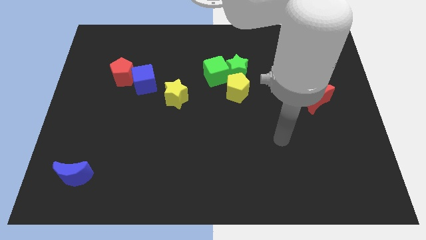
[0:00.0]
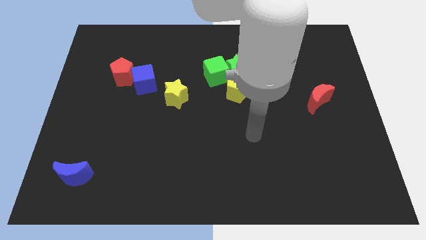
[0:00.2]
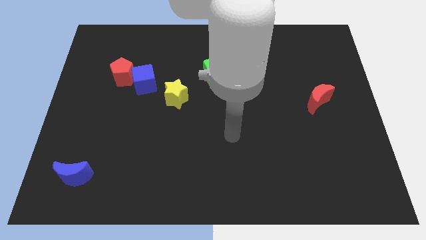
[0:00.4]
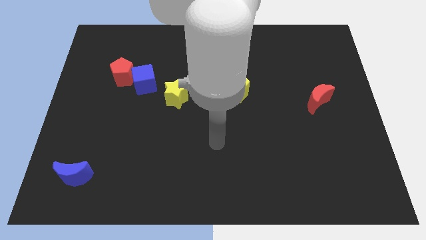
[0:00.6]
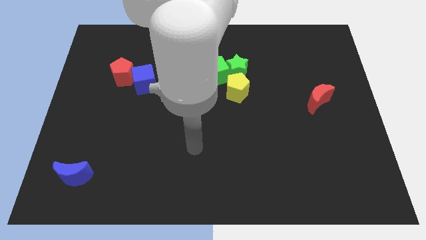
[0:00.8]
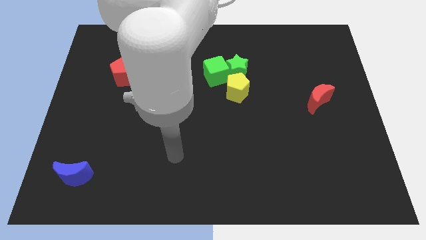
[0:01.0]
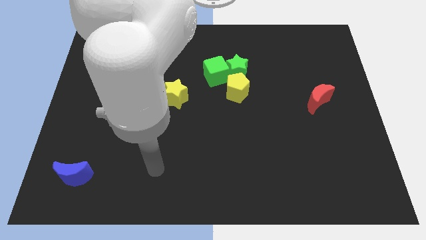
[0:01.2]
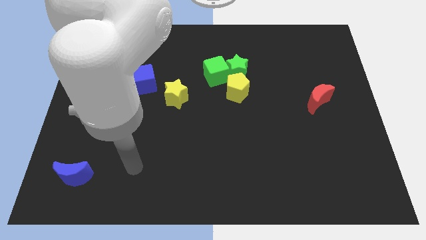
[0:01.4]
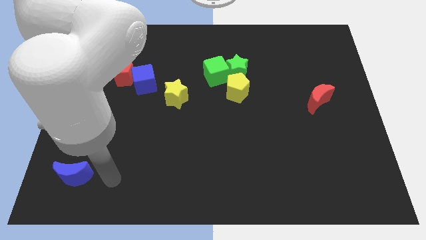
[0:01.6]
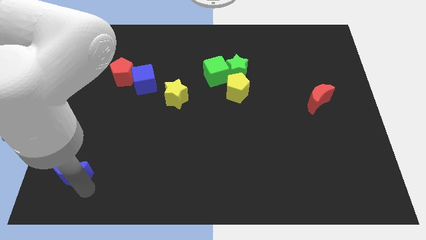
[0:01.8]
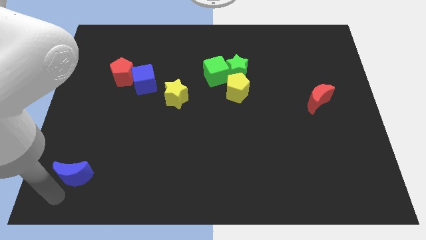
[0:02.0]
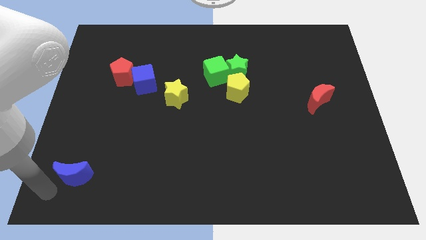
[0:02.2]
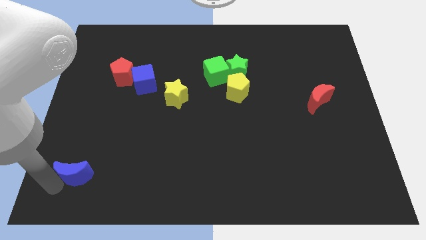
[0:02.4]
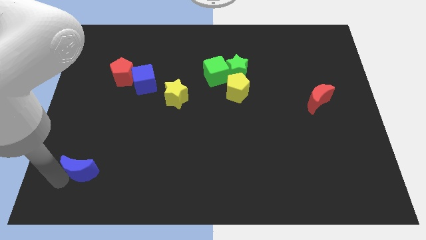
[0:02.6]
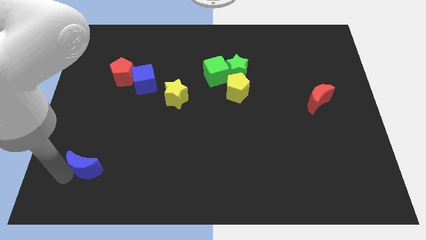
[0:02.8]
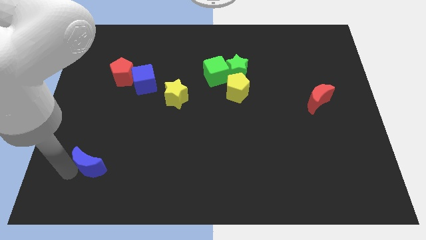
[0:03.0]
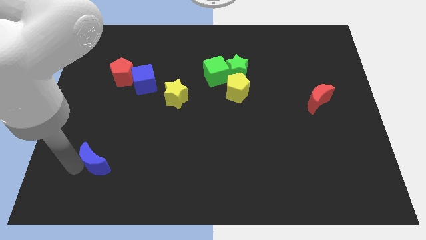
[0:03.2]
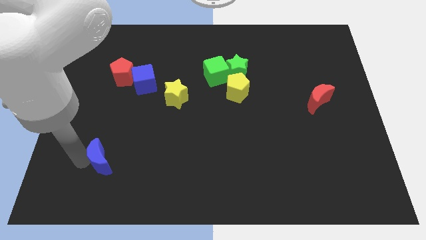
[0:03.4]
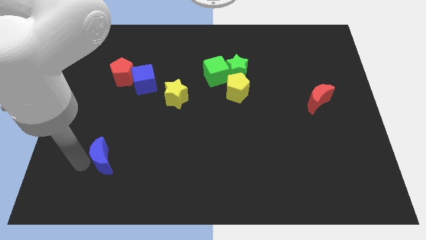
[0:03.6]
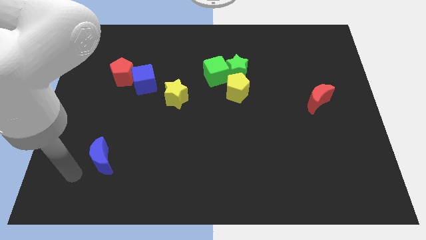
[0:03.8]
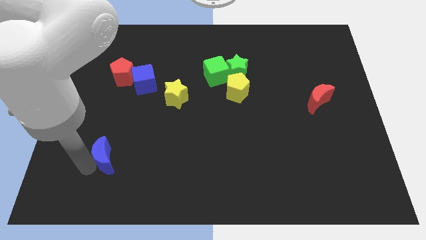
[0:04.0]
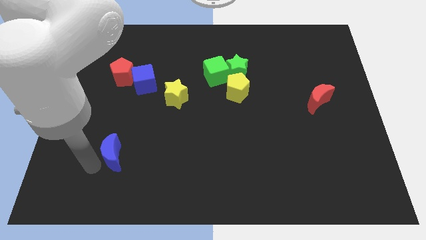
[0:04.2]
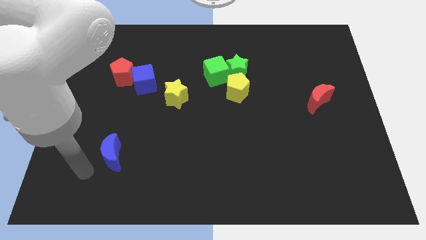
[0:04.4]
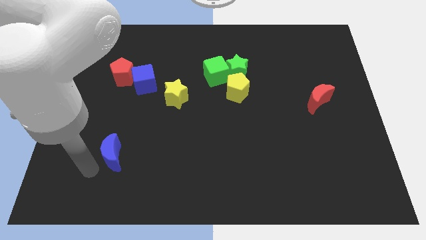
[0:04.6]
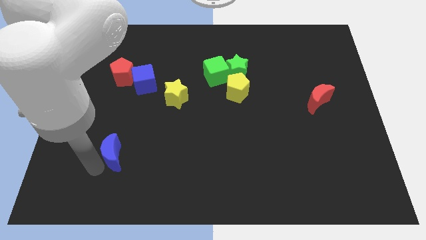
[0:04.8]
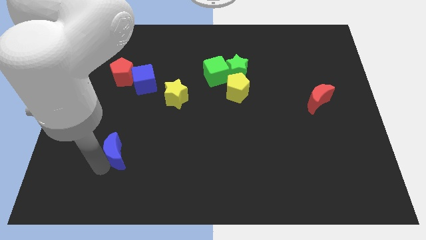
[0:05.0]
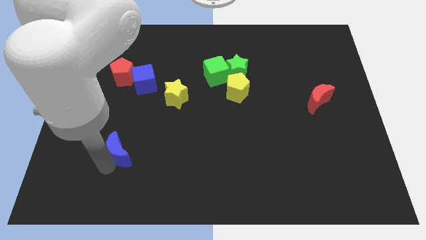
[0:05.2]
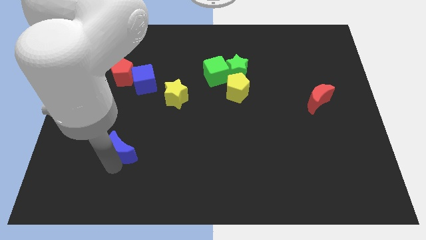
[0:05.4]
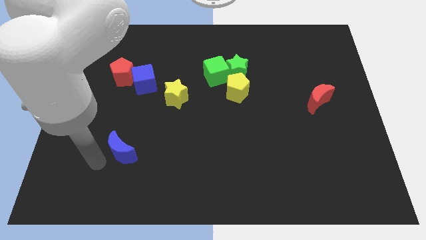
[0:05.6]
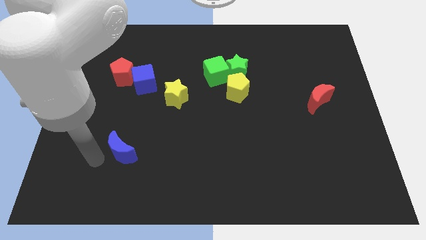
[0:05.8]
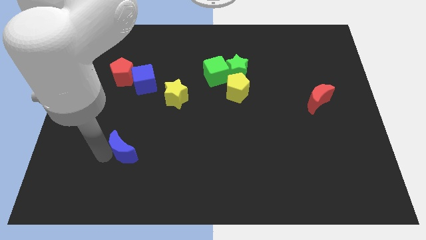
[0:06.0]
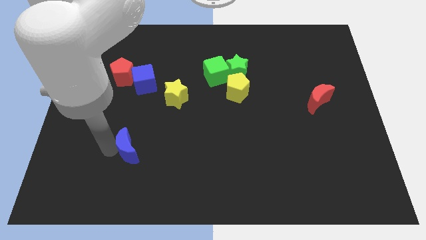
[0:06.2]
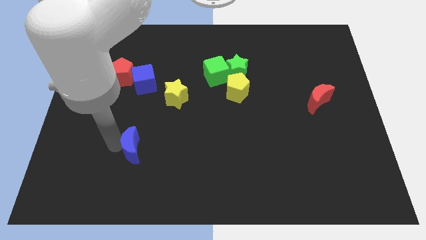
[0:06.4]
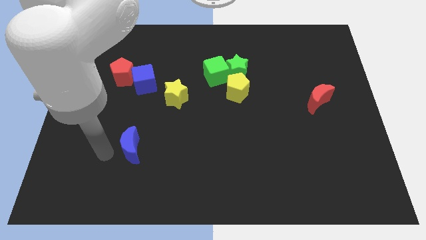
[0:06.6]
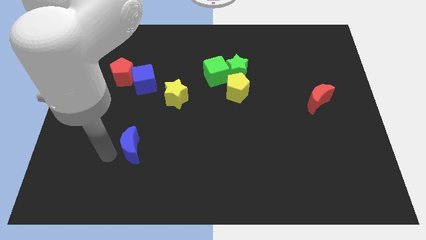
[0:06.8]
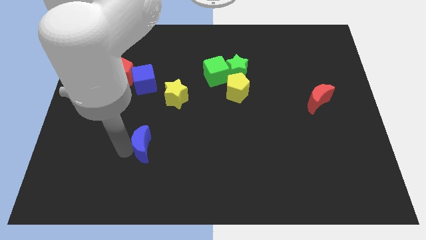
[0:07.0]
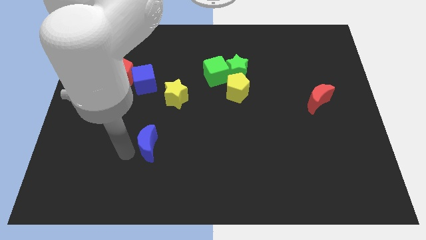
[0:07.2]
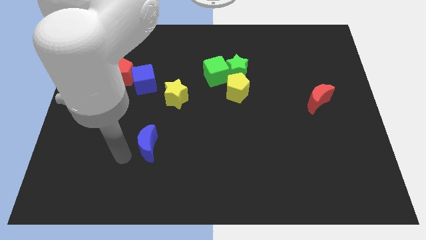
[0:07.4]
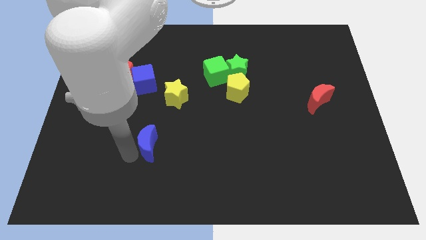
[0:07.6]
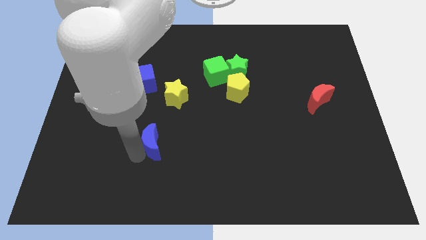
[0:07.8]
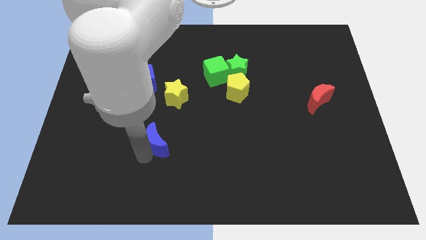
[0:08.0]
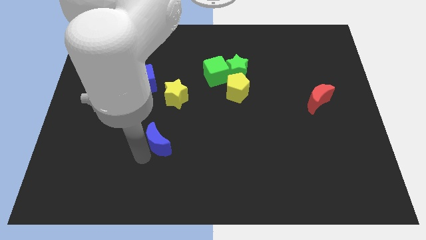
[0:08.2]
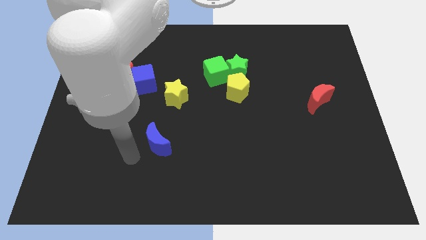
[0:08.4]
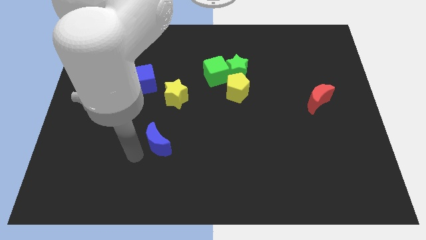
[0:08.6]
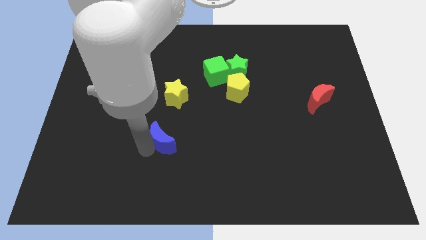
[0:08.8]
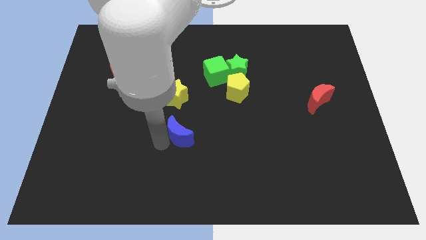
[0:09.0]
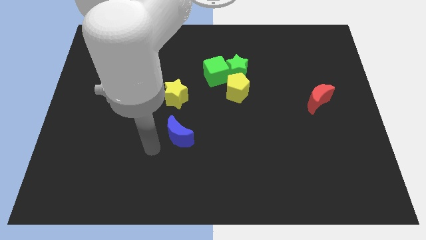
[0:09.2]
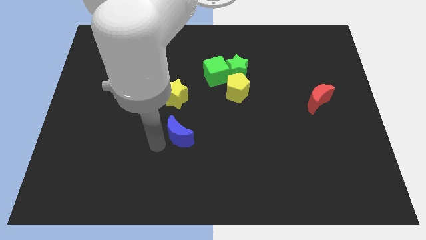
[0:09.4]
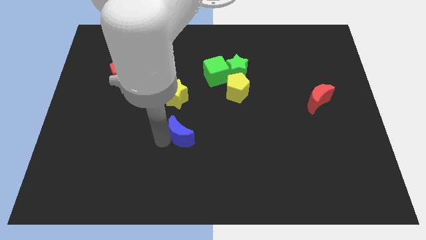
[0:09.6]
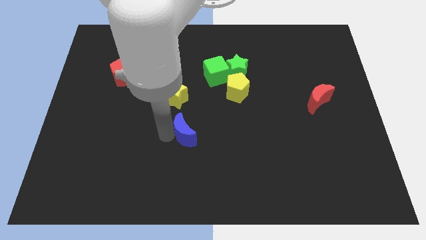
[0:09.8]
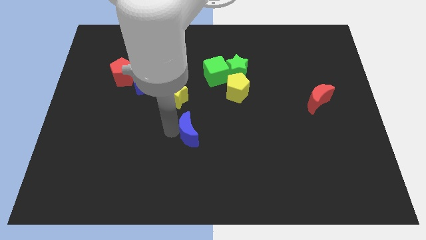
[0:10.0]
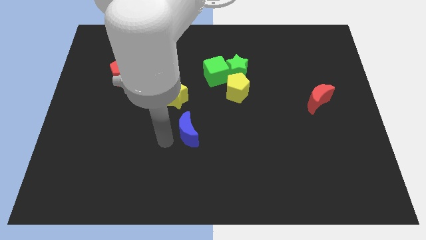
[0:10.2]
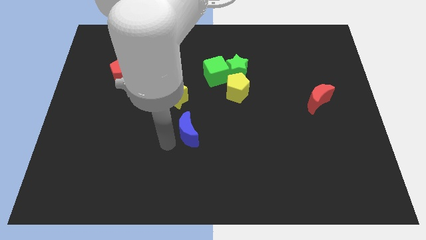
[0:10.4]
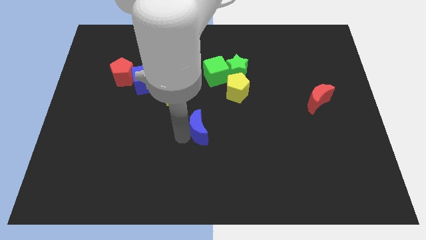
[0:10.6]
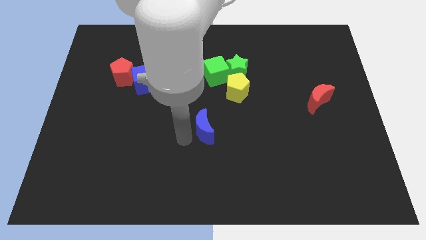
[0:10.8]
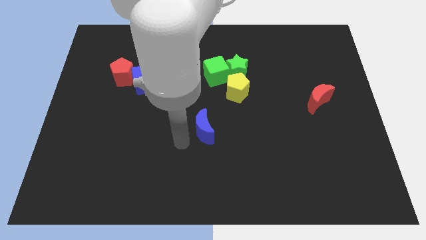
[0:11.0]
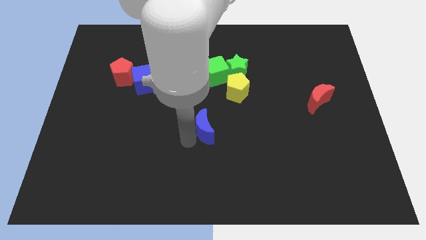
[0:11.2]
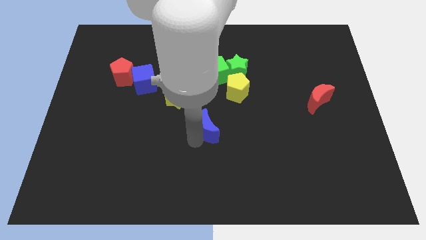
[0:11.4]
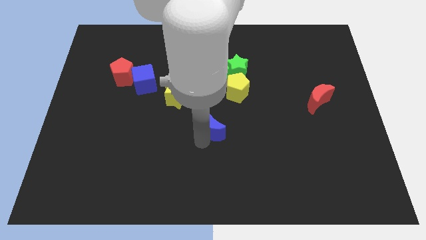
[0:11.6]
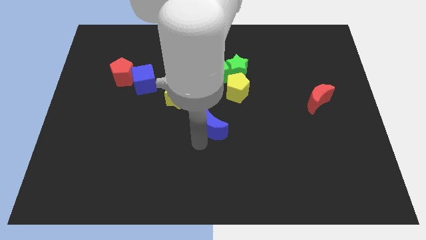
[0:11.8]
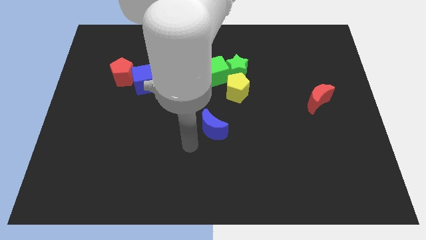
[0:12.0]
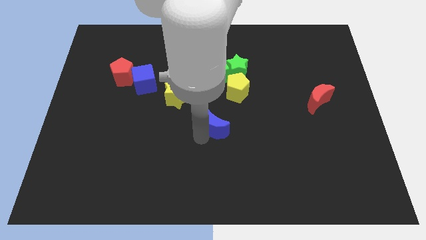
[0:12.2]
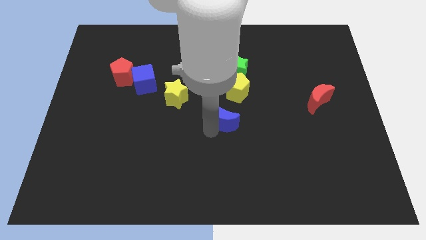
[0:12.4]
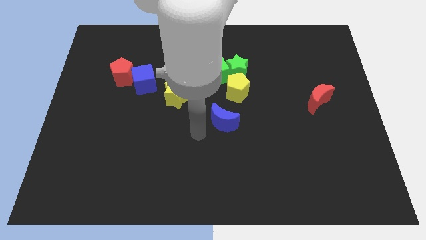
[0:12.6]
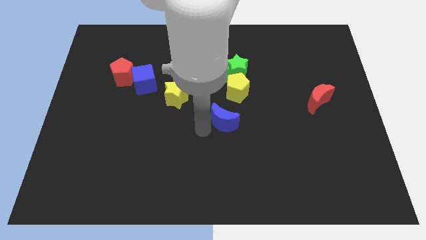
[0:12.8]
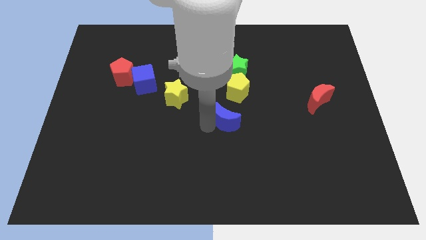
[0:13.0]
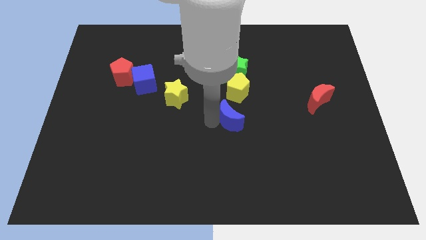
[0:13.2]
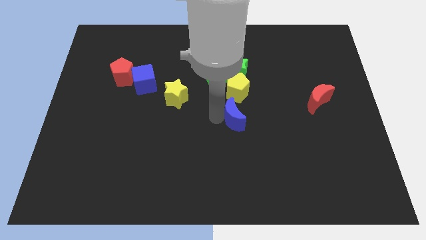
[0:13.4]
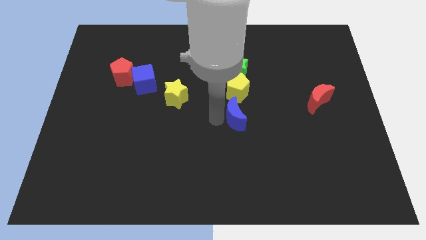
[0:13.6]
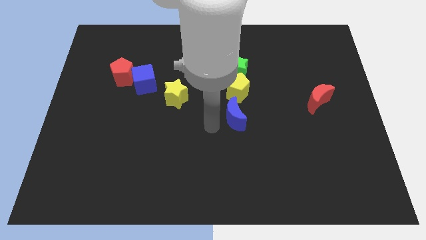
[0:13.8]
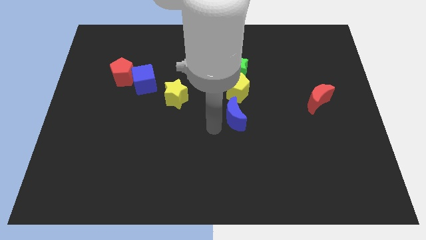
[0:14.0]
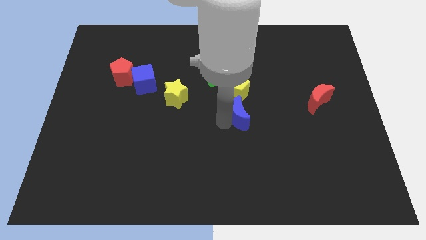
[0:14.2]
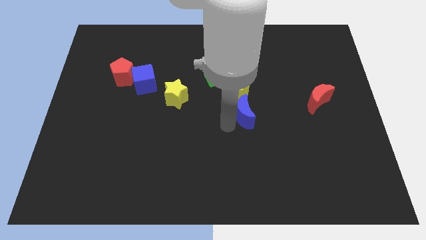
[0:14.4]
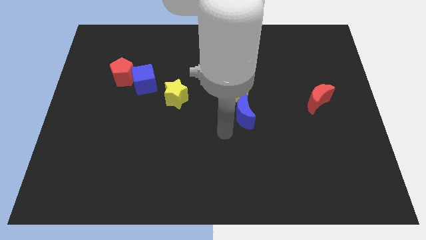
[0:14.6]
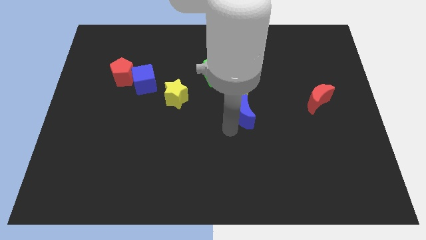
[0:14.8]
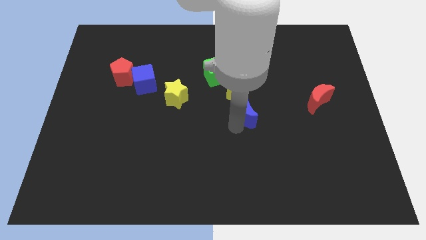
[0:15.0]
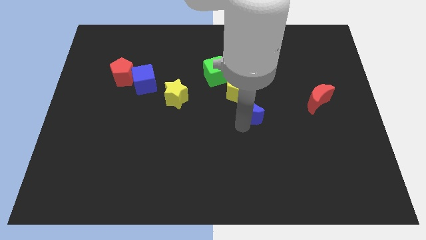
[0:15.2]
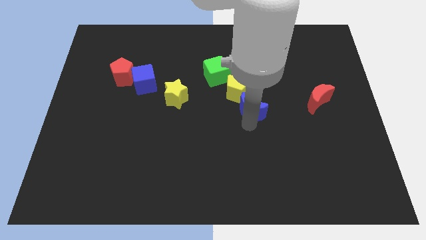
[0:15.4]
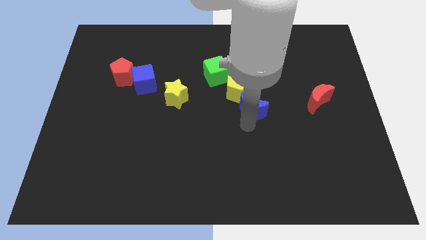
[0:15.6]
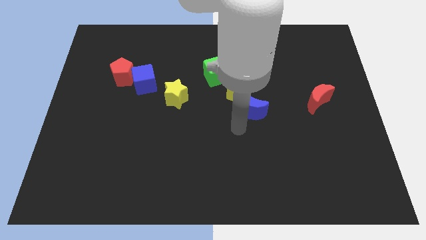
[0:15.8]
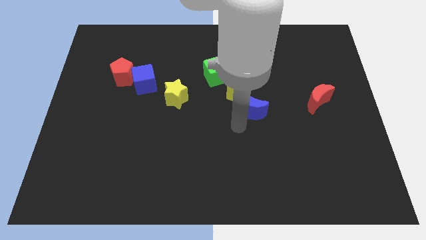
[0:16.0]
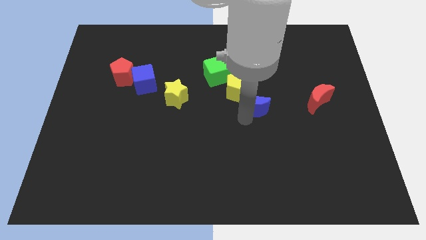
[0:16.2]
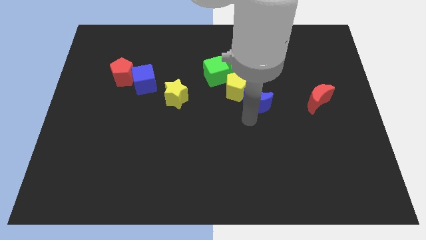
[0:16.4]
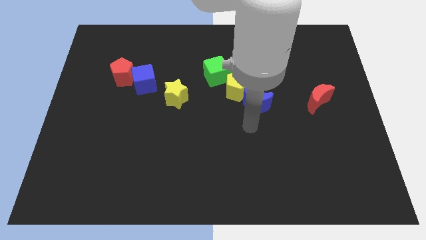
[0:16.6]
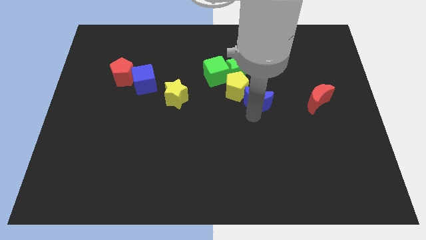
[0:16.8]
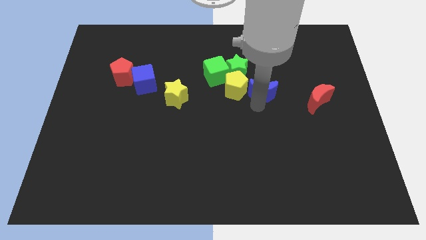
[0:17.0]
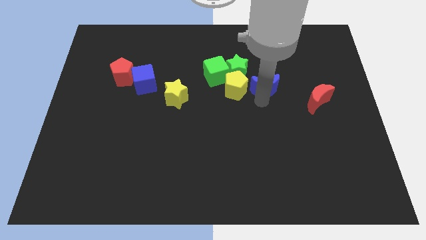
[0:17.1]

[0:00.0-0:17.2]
move the blue moon right of the green cube
